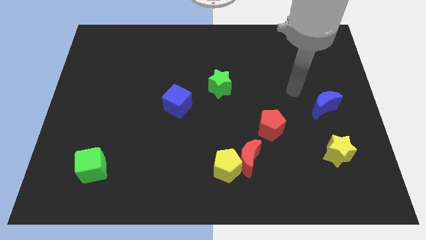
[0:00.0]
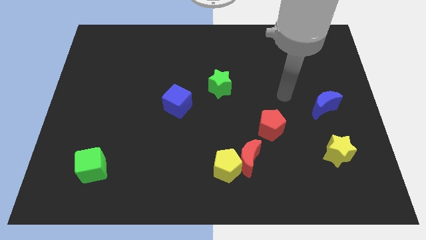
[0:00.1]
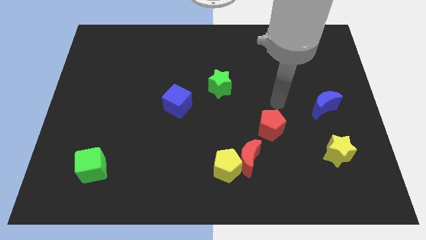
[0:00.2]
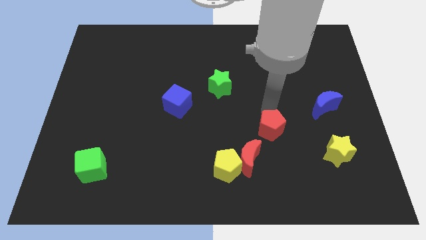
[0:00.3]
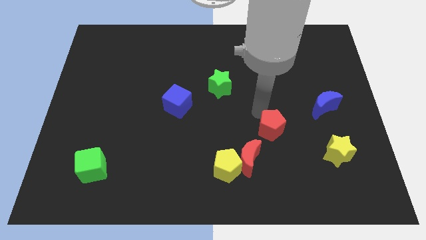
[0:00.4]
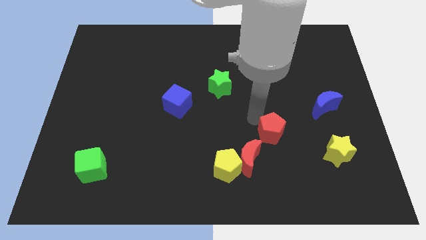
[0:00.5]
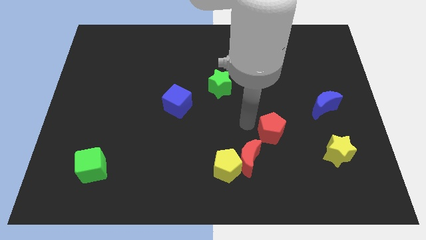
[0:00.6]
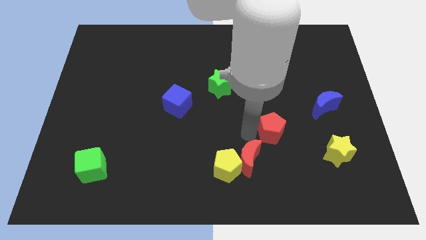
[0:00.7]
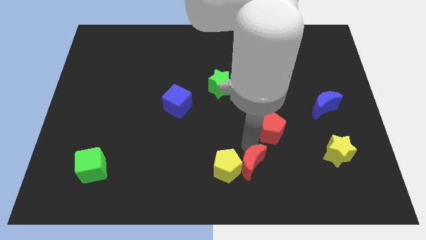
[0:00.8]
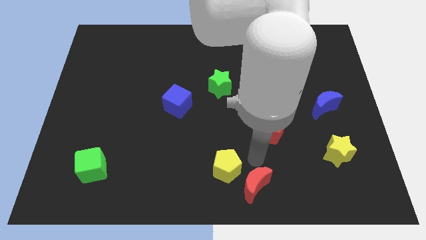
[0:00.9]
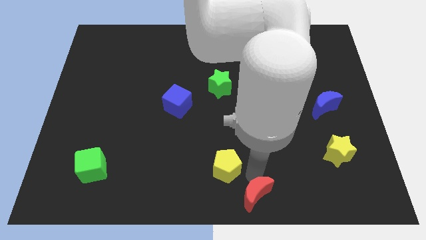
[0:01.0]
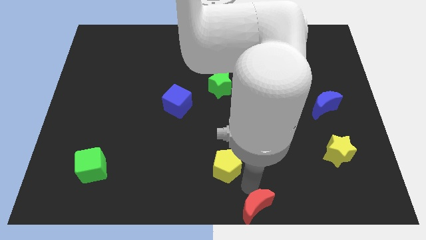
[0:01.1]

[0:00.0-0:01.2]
move the yellow pentagon away from the red moon

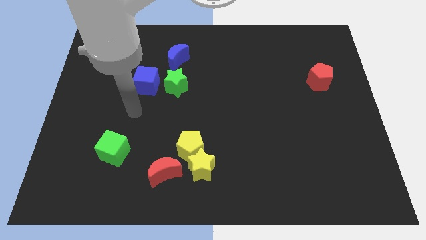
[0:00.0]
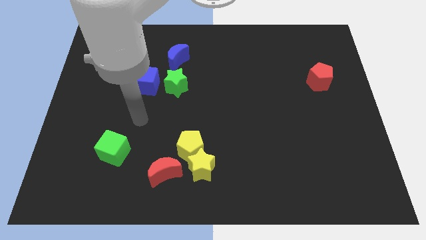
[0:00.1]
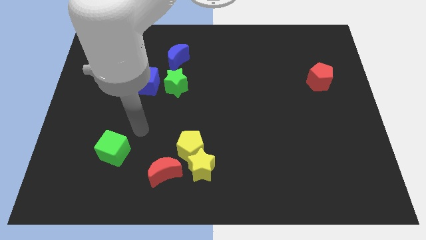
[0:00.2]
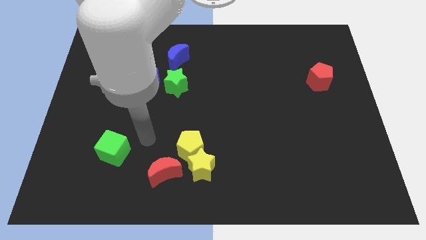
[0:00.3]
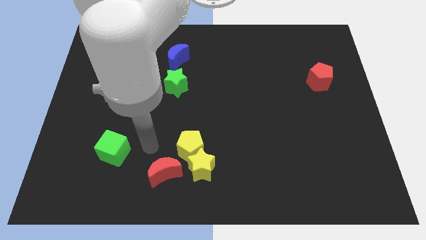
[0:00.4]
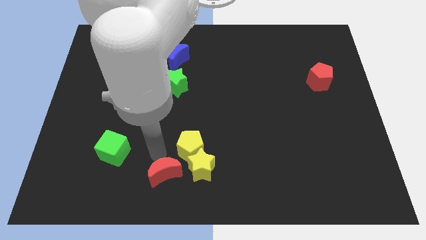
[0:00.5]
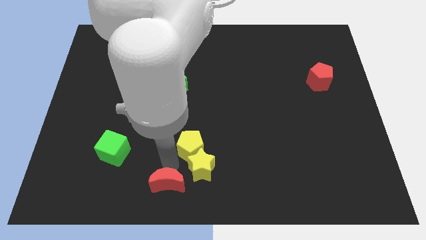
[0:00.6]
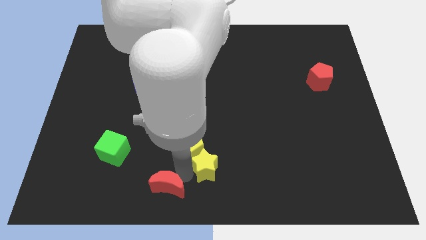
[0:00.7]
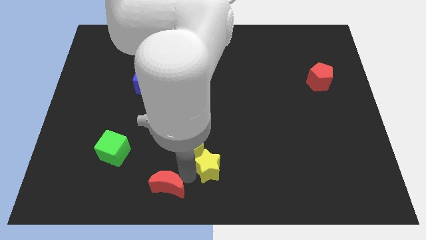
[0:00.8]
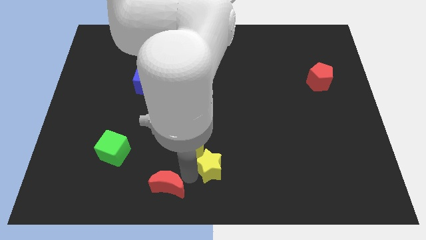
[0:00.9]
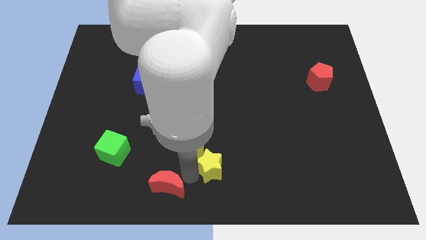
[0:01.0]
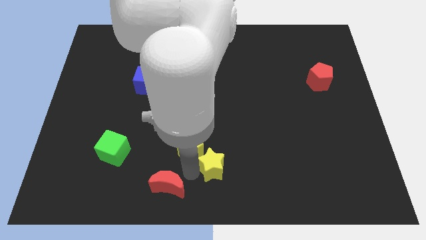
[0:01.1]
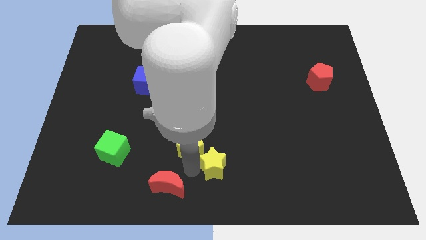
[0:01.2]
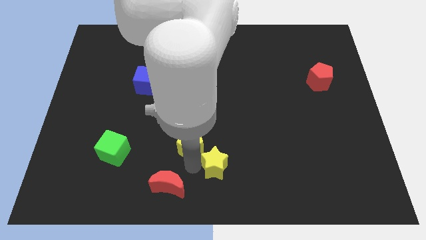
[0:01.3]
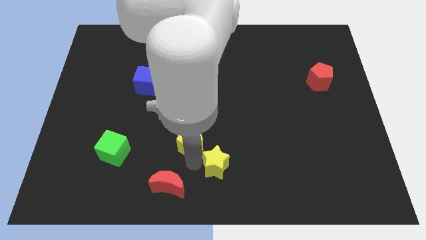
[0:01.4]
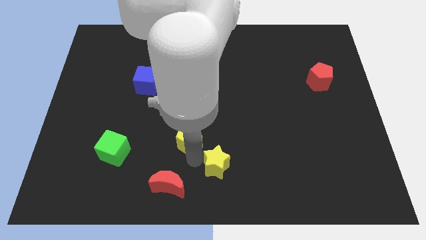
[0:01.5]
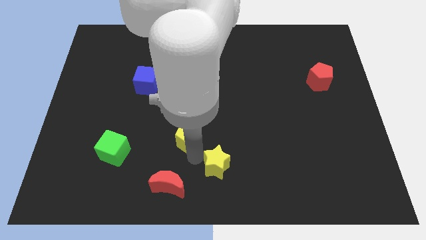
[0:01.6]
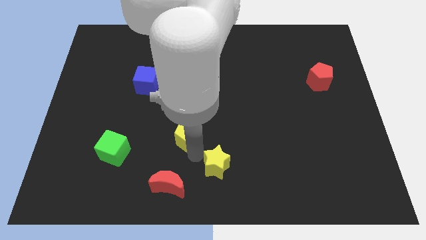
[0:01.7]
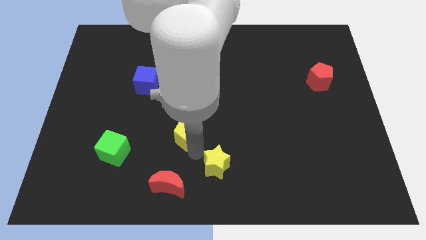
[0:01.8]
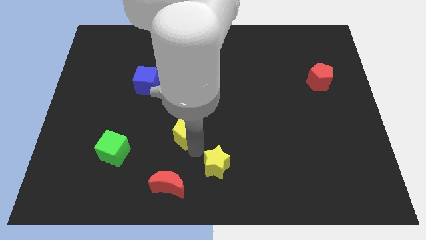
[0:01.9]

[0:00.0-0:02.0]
move the yellow pentagon away from the yellow star and red moon

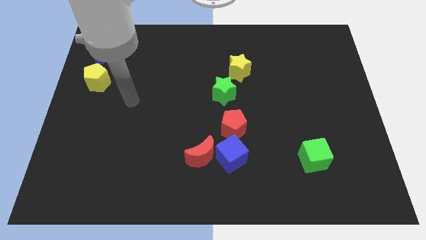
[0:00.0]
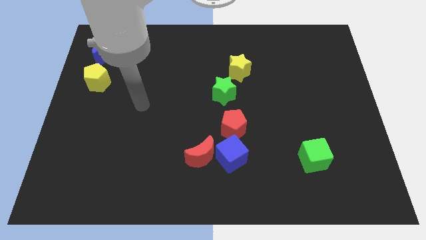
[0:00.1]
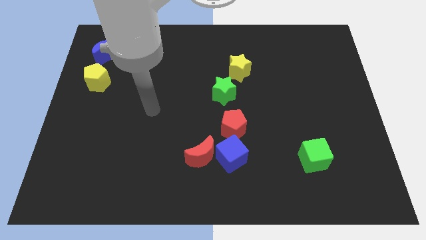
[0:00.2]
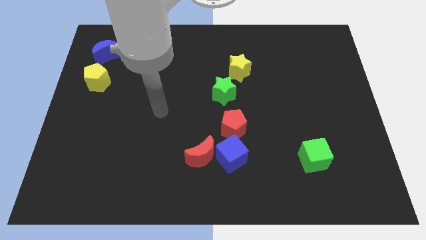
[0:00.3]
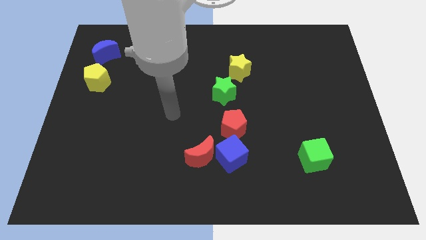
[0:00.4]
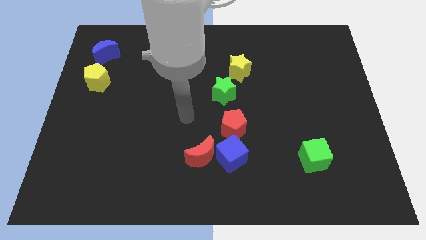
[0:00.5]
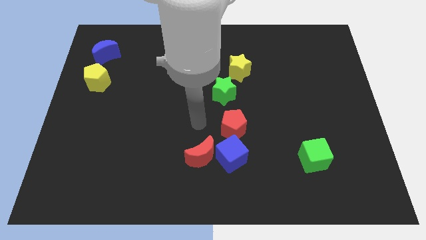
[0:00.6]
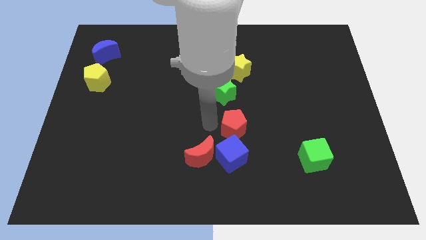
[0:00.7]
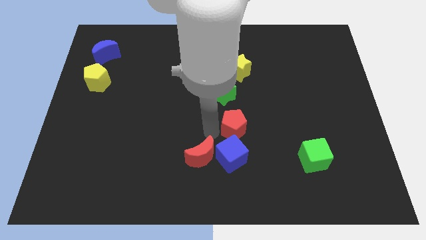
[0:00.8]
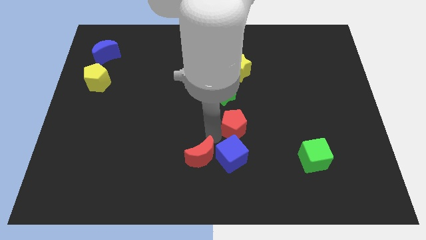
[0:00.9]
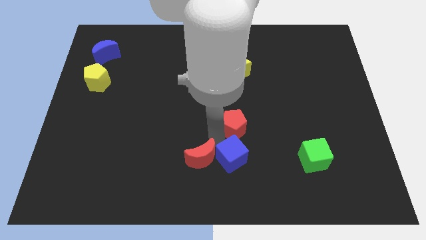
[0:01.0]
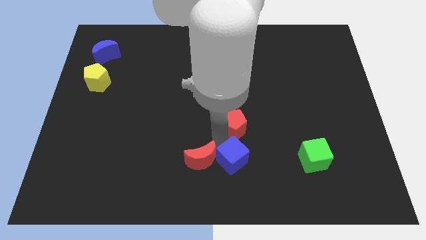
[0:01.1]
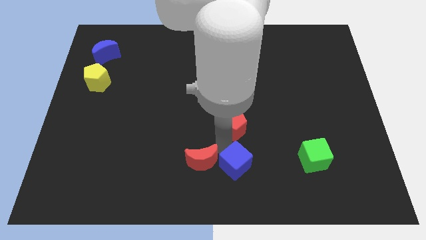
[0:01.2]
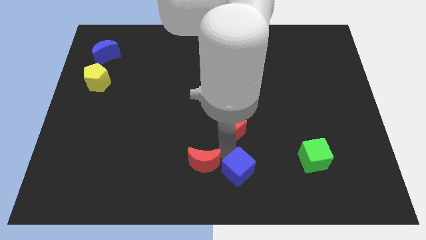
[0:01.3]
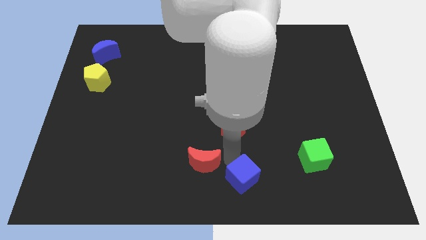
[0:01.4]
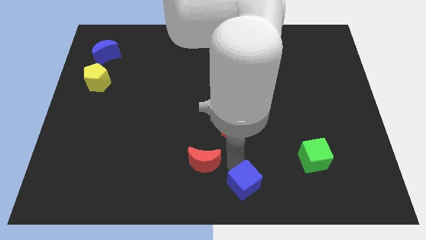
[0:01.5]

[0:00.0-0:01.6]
separate the blue cube from the red moon and red pentagon

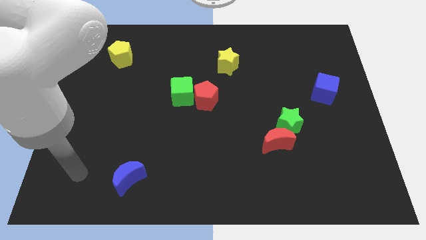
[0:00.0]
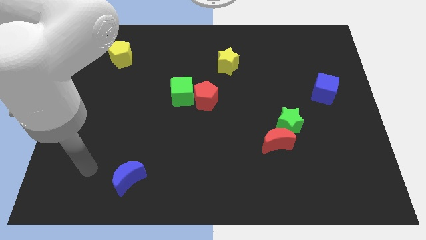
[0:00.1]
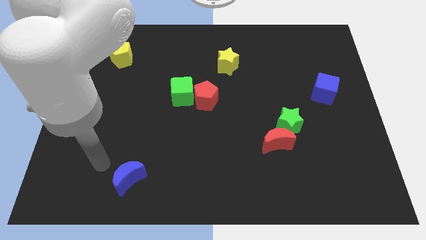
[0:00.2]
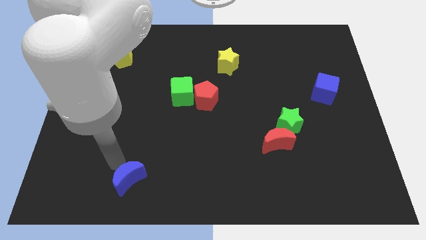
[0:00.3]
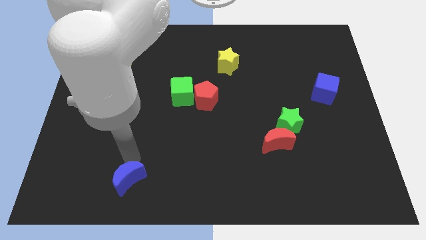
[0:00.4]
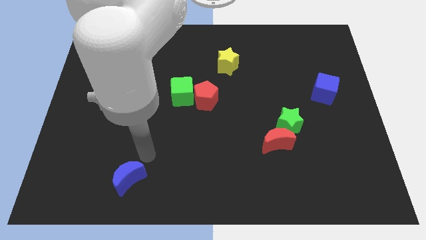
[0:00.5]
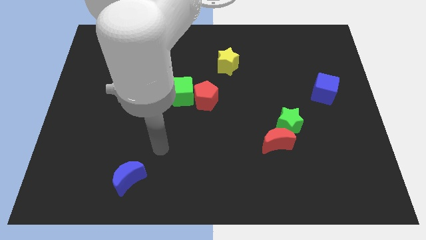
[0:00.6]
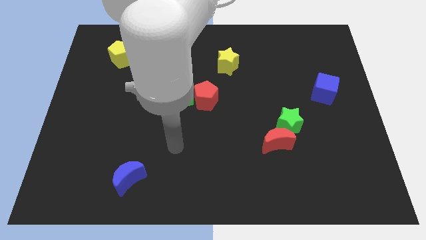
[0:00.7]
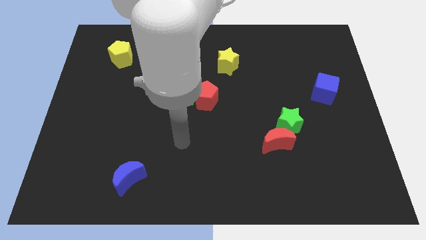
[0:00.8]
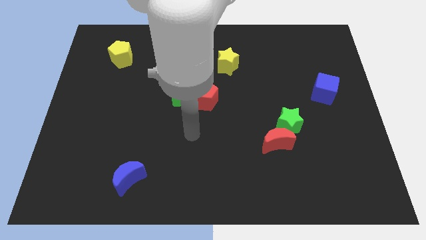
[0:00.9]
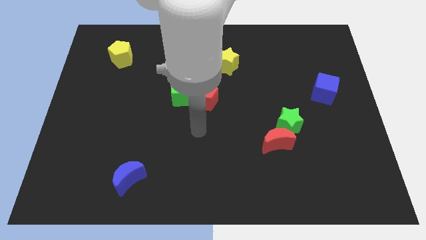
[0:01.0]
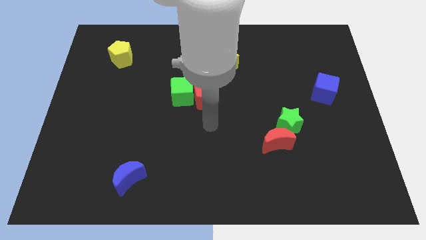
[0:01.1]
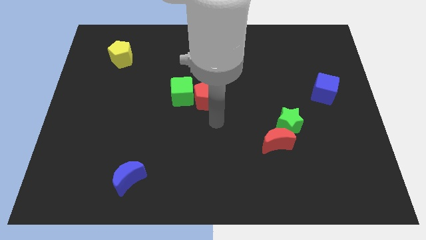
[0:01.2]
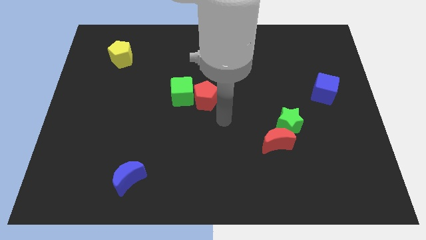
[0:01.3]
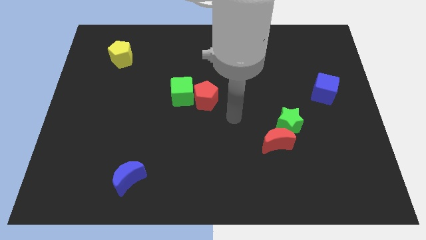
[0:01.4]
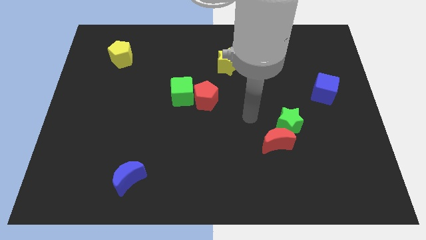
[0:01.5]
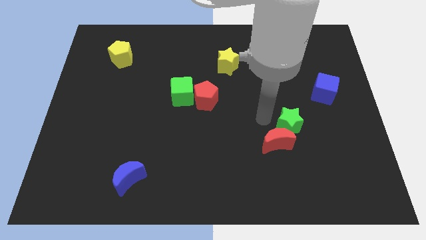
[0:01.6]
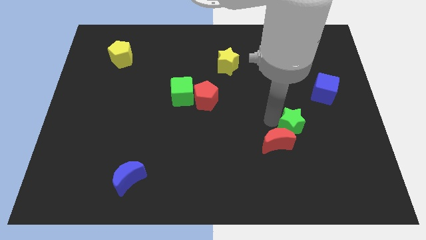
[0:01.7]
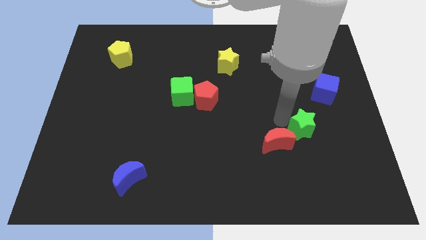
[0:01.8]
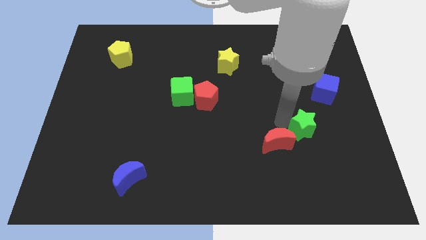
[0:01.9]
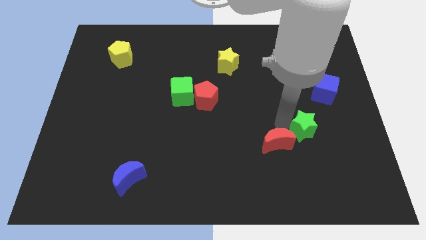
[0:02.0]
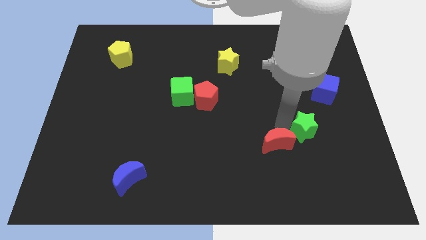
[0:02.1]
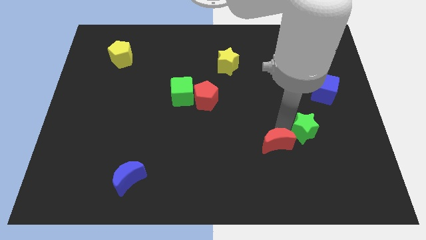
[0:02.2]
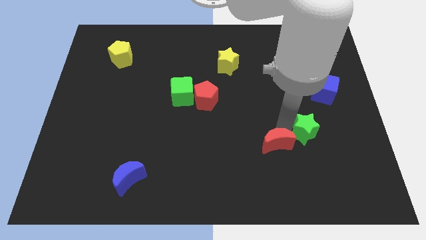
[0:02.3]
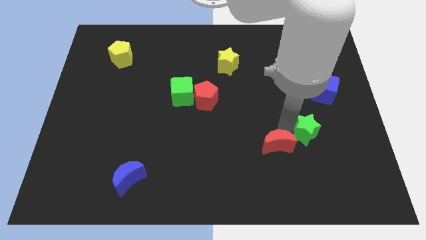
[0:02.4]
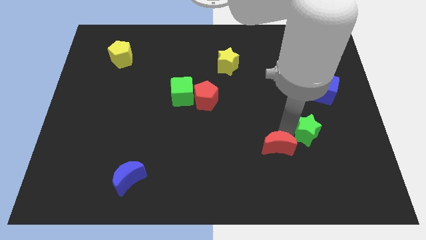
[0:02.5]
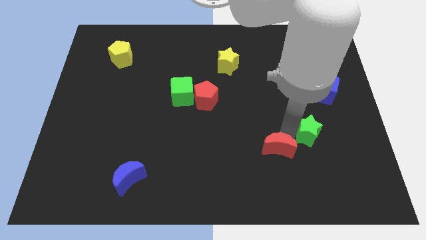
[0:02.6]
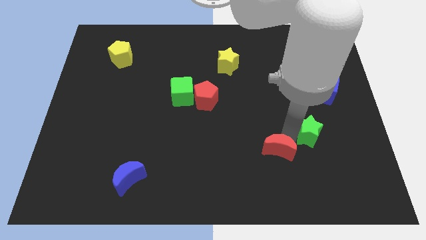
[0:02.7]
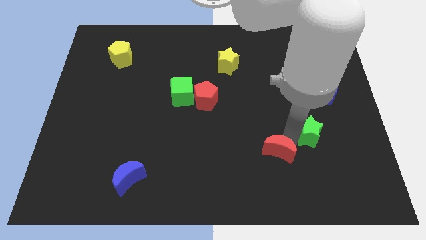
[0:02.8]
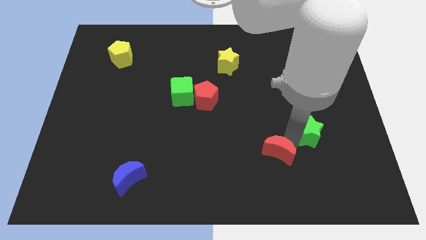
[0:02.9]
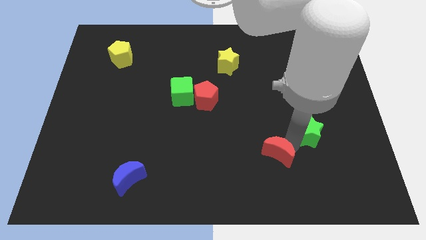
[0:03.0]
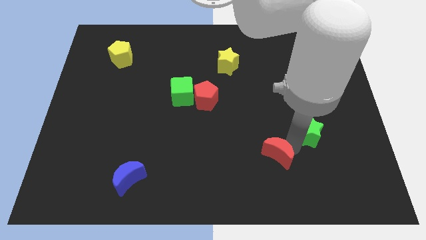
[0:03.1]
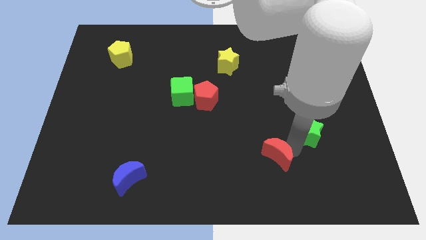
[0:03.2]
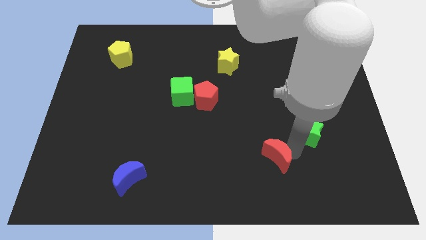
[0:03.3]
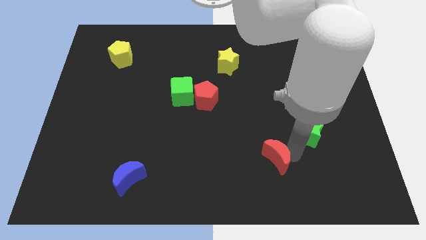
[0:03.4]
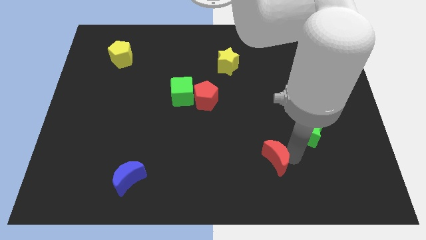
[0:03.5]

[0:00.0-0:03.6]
move the red moon away from the green star

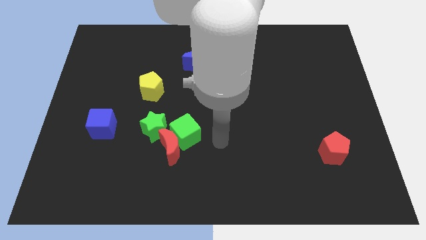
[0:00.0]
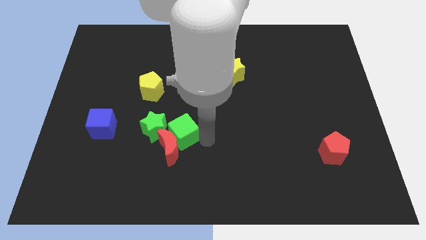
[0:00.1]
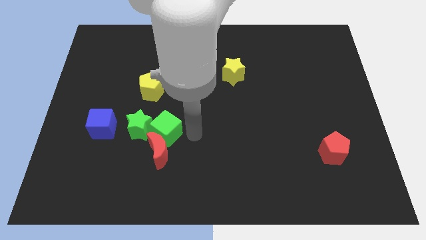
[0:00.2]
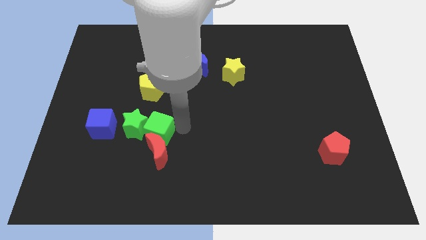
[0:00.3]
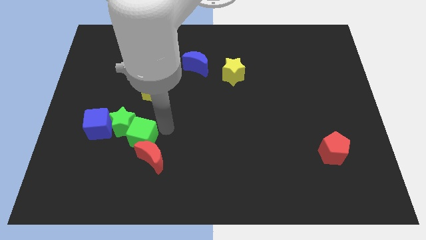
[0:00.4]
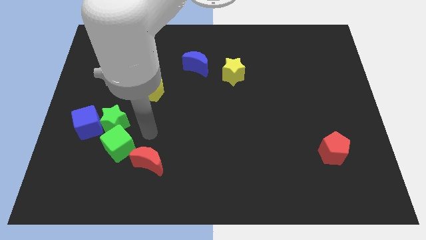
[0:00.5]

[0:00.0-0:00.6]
separate the red moon from the green cube and green star

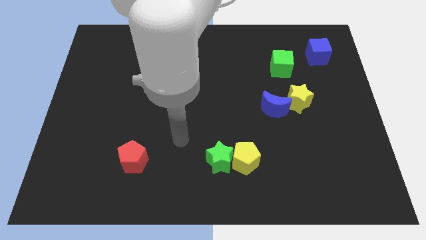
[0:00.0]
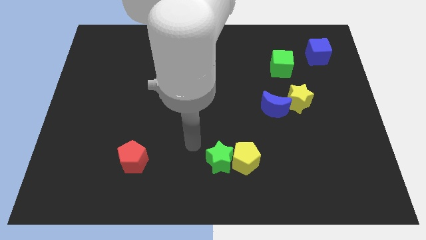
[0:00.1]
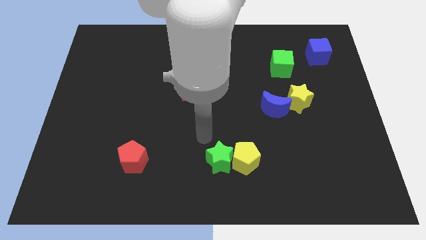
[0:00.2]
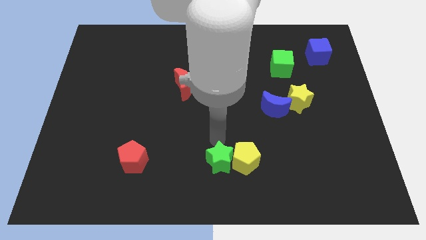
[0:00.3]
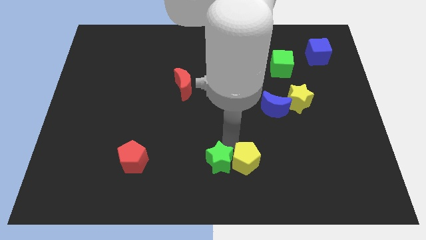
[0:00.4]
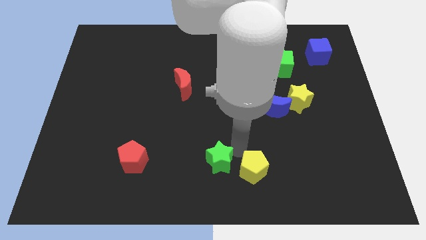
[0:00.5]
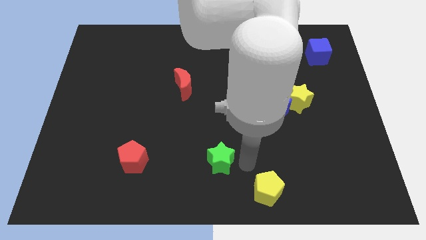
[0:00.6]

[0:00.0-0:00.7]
move the green star away from the yellow pentagon
